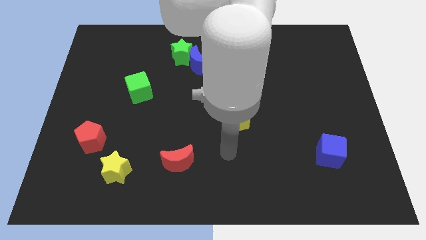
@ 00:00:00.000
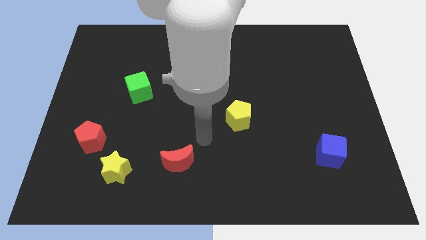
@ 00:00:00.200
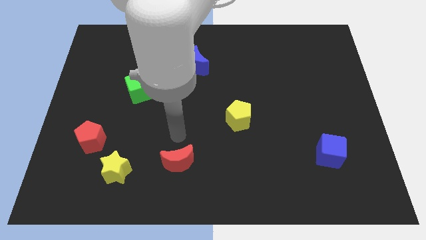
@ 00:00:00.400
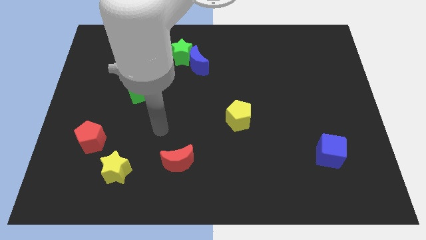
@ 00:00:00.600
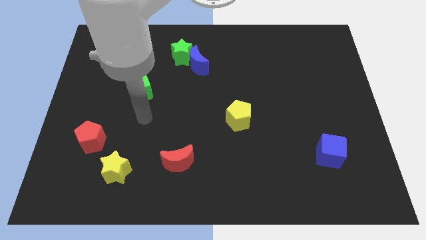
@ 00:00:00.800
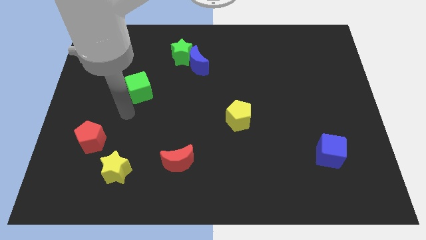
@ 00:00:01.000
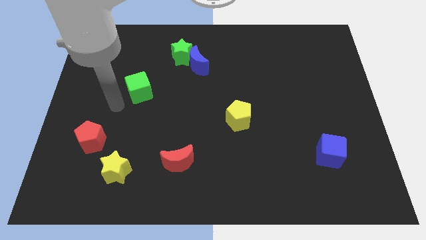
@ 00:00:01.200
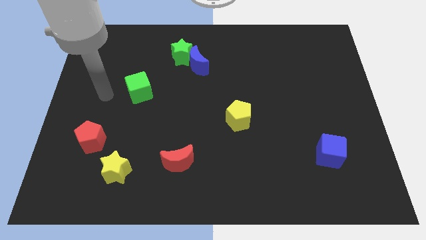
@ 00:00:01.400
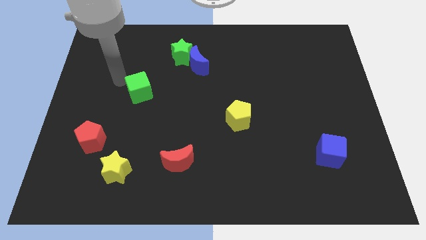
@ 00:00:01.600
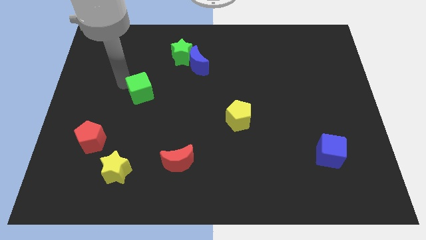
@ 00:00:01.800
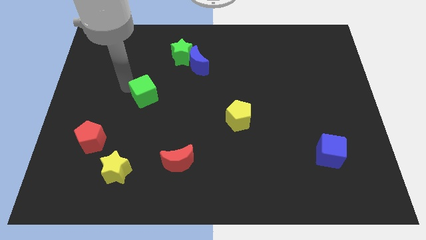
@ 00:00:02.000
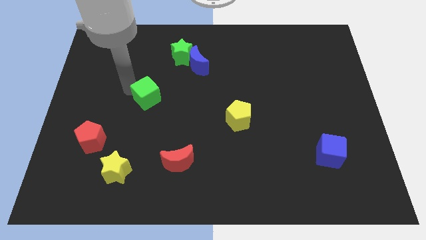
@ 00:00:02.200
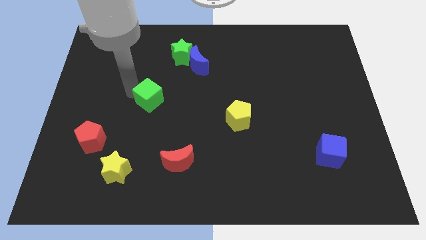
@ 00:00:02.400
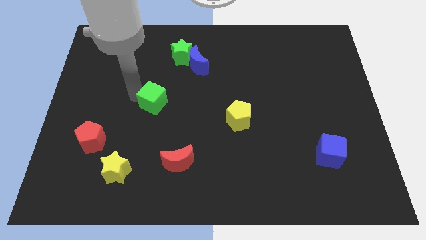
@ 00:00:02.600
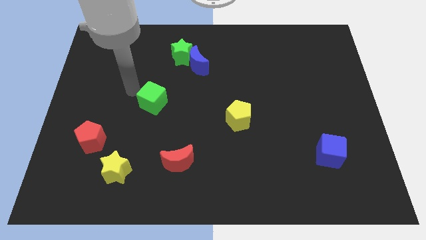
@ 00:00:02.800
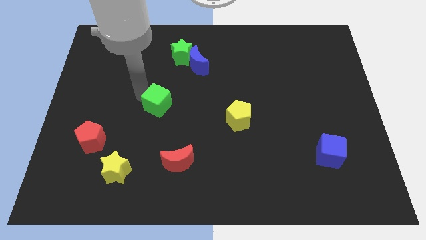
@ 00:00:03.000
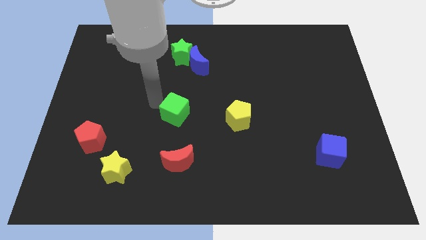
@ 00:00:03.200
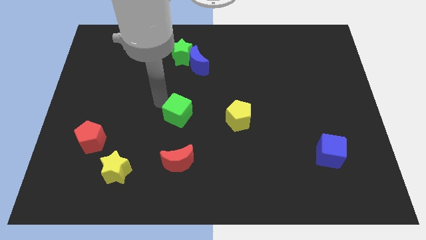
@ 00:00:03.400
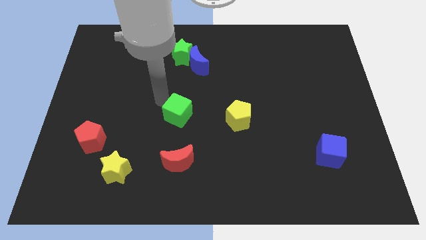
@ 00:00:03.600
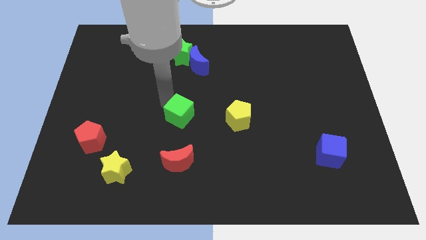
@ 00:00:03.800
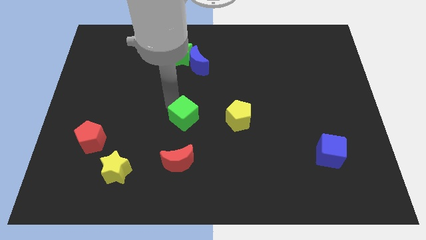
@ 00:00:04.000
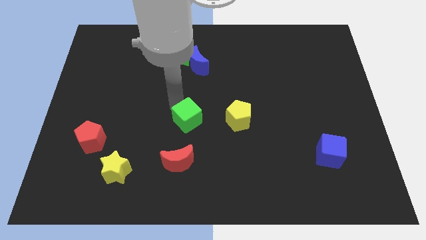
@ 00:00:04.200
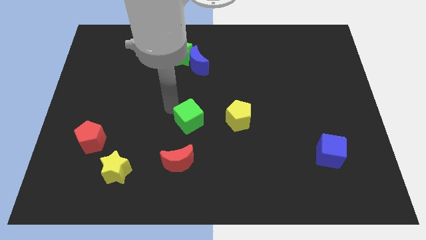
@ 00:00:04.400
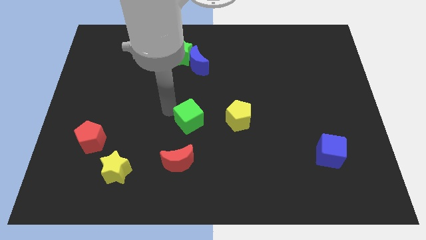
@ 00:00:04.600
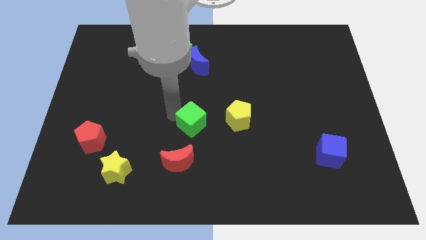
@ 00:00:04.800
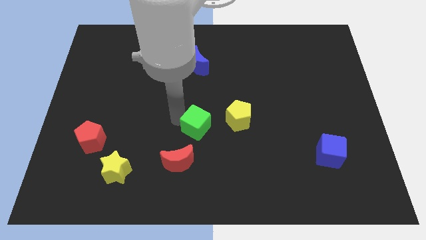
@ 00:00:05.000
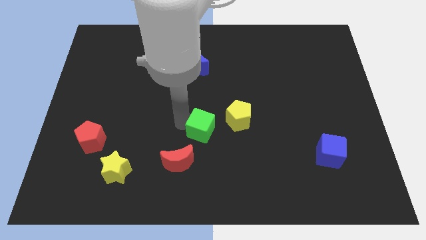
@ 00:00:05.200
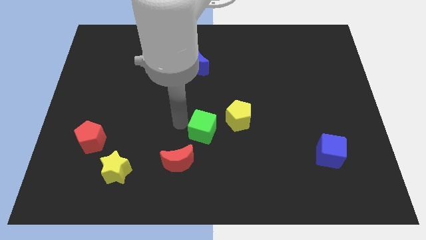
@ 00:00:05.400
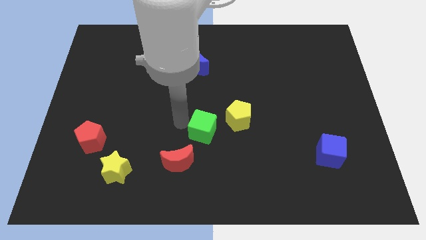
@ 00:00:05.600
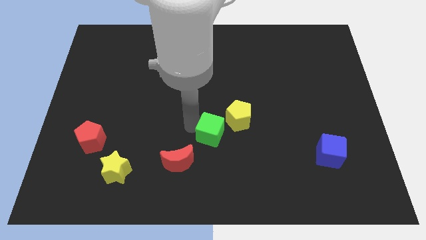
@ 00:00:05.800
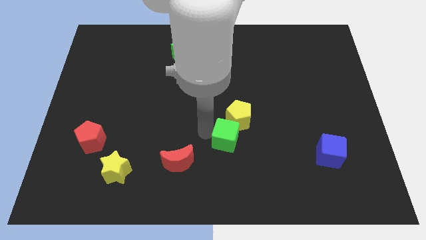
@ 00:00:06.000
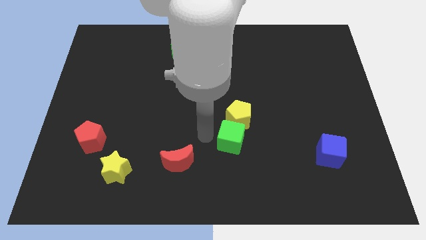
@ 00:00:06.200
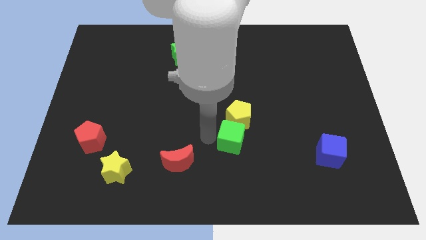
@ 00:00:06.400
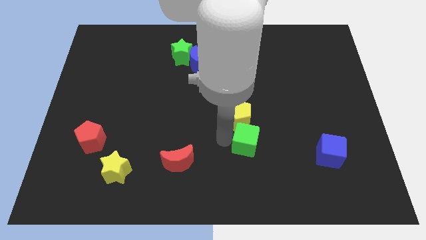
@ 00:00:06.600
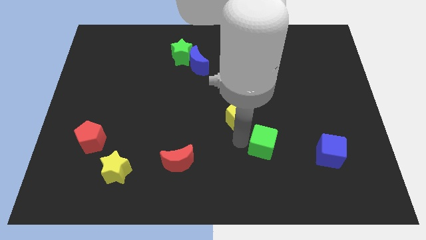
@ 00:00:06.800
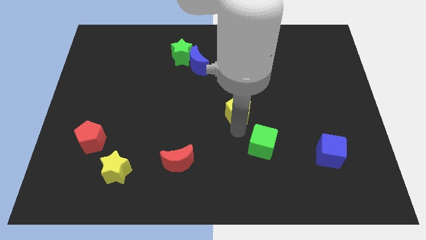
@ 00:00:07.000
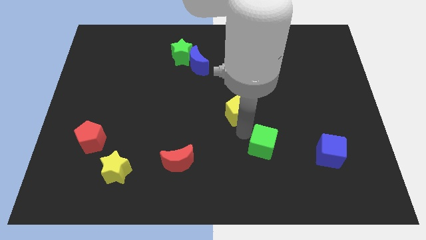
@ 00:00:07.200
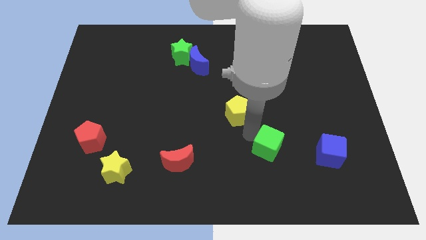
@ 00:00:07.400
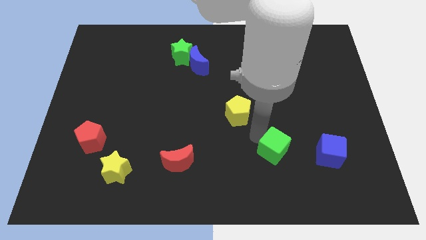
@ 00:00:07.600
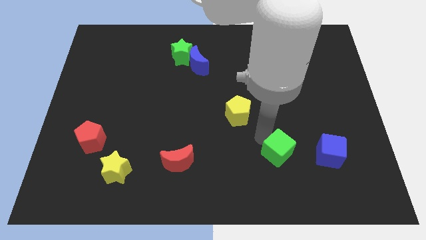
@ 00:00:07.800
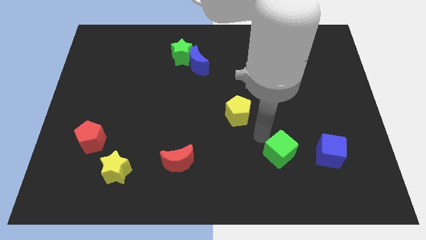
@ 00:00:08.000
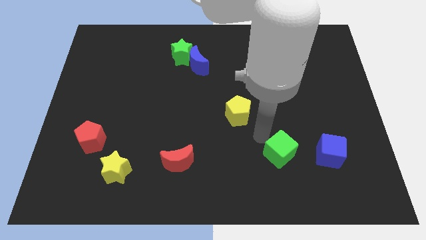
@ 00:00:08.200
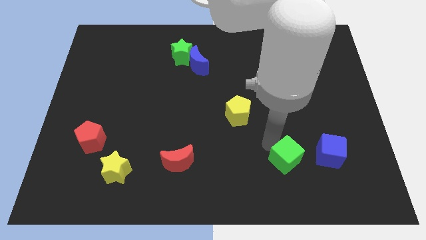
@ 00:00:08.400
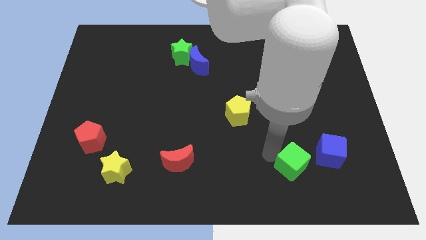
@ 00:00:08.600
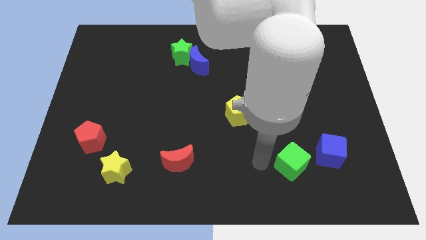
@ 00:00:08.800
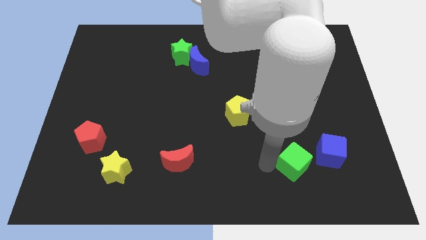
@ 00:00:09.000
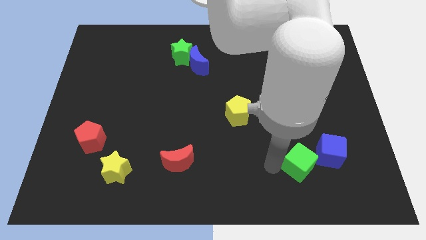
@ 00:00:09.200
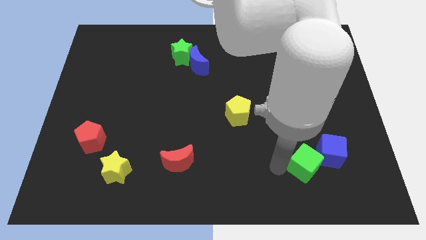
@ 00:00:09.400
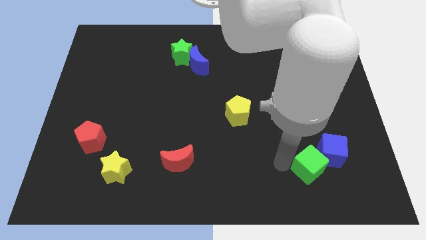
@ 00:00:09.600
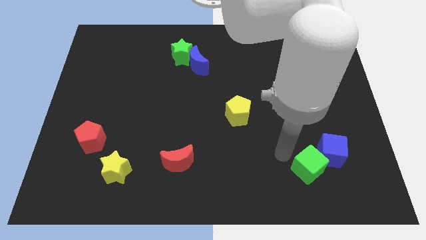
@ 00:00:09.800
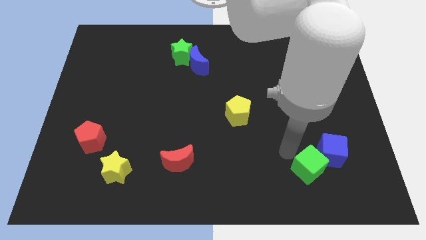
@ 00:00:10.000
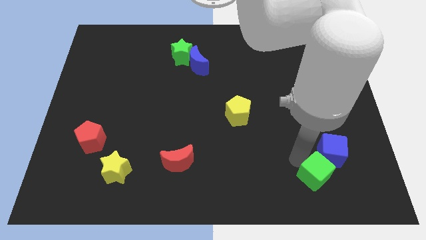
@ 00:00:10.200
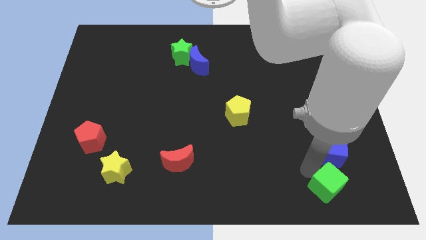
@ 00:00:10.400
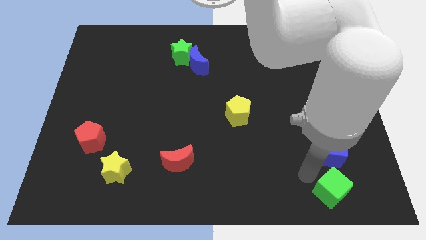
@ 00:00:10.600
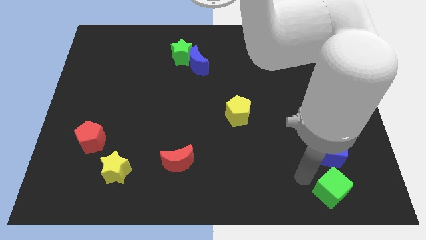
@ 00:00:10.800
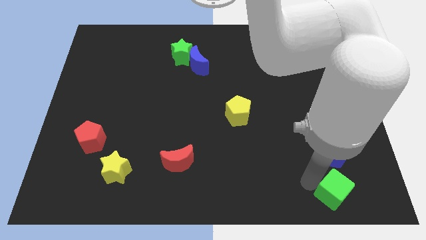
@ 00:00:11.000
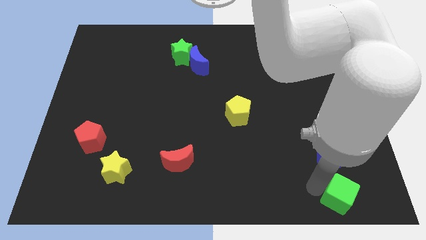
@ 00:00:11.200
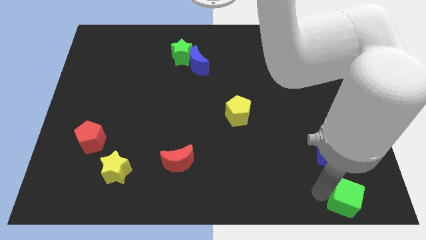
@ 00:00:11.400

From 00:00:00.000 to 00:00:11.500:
put the green cube to the lower right corner
